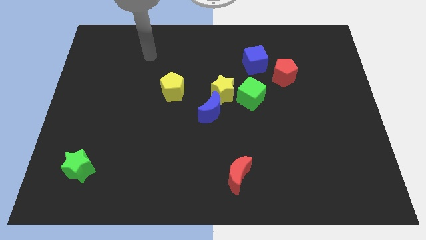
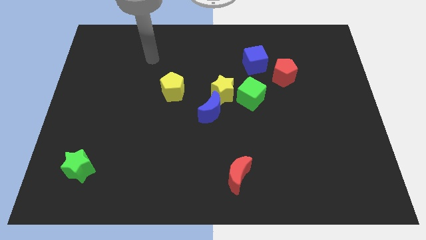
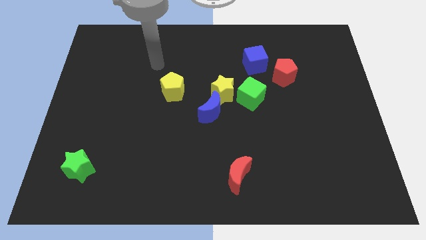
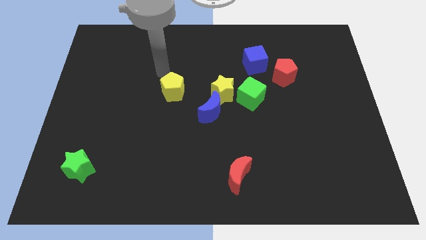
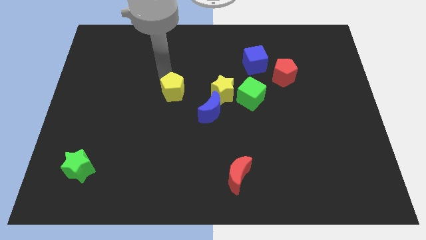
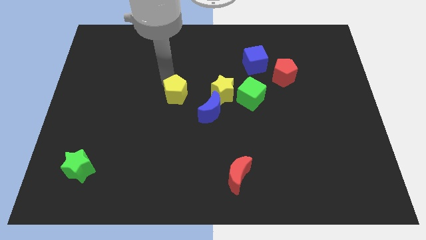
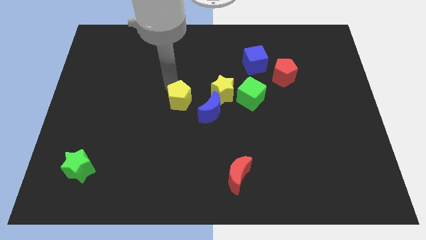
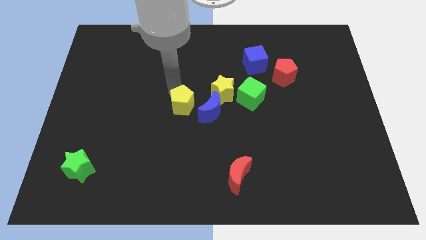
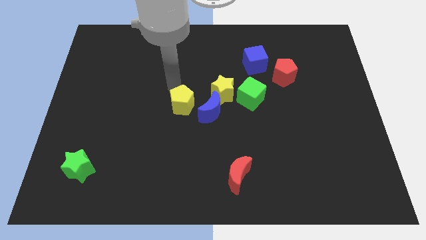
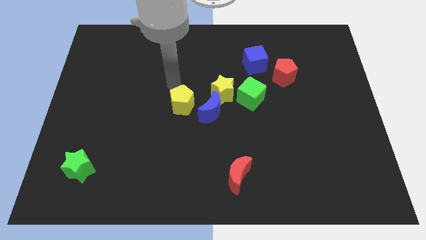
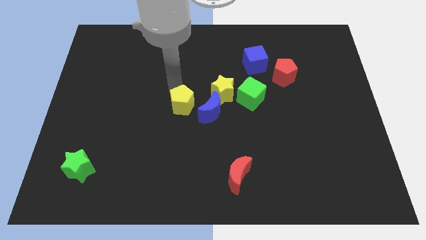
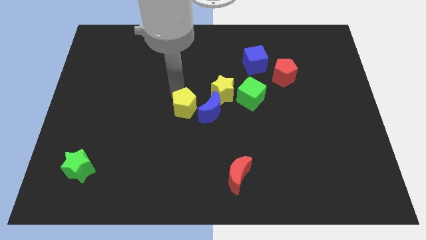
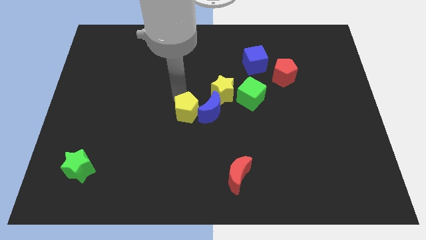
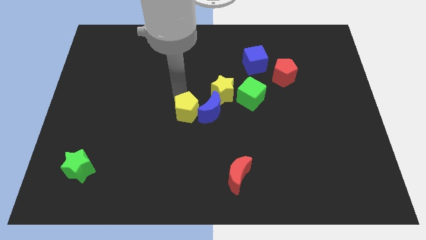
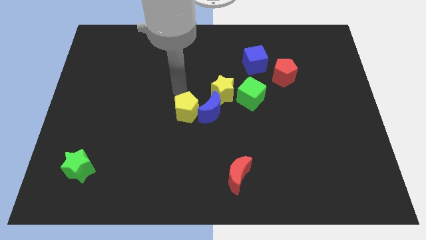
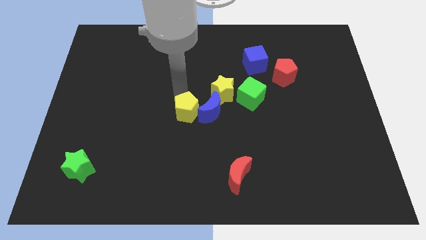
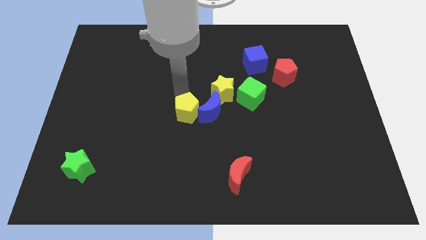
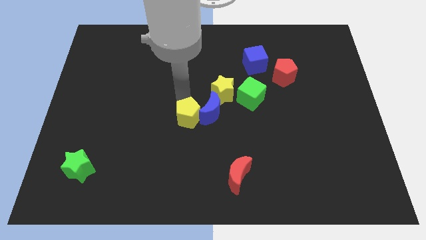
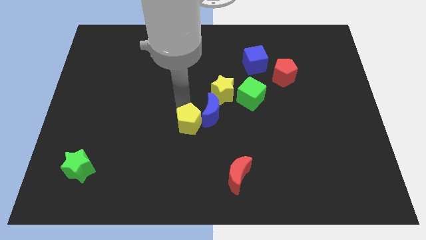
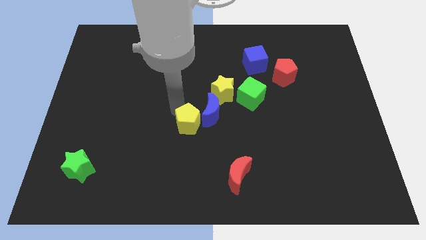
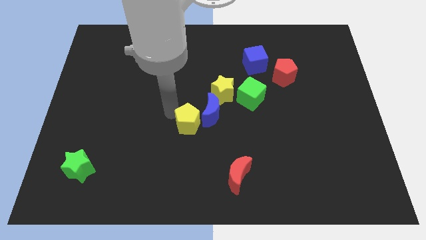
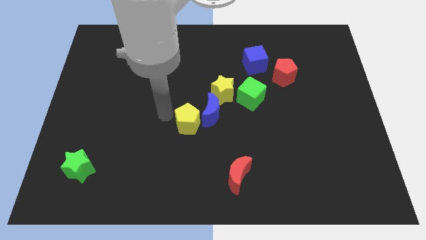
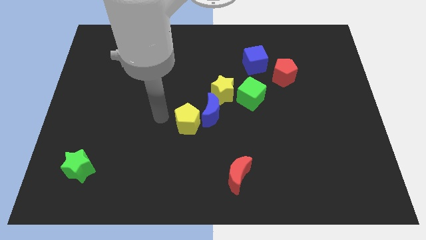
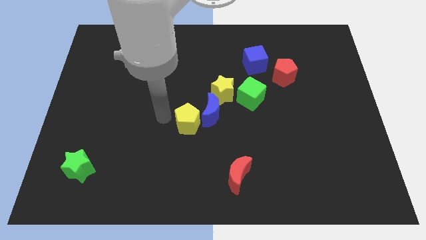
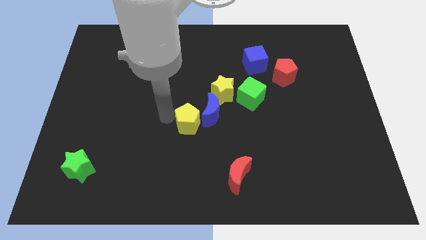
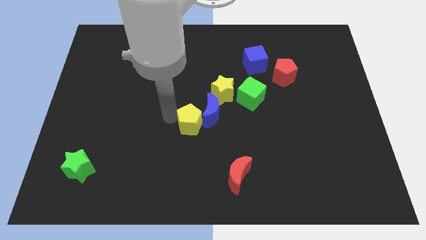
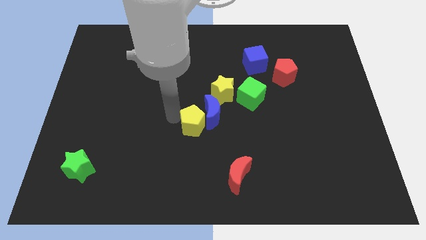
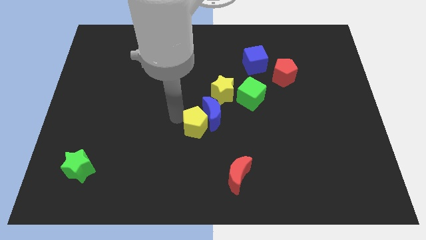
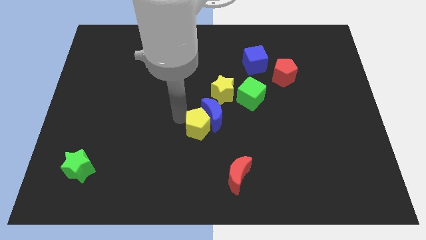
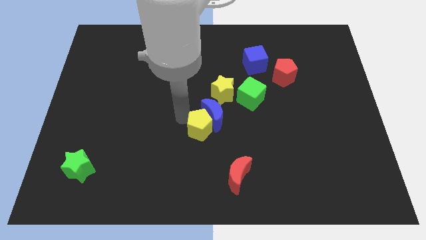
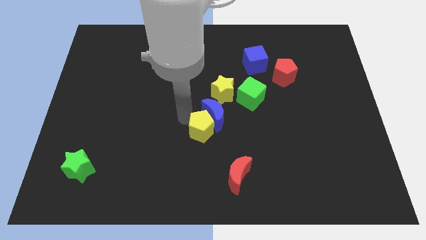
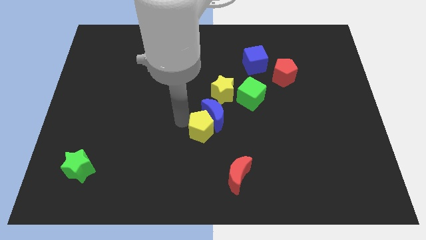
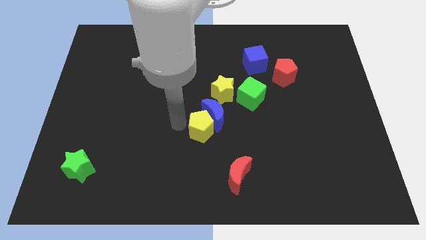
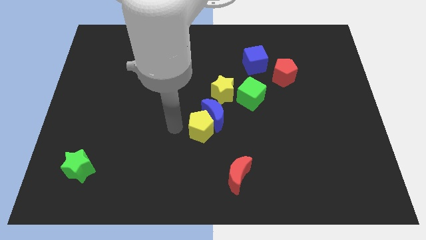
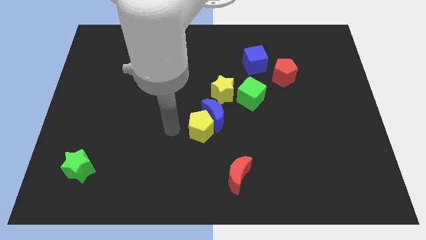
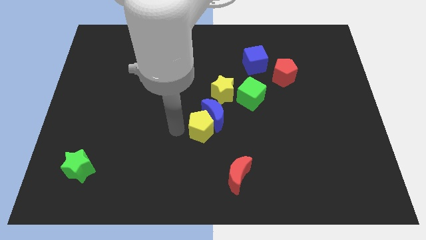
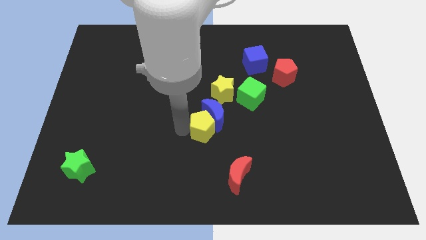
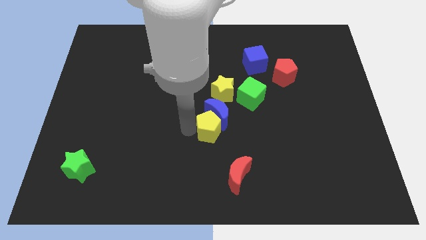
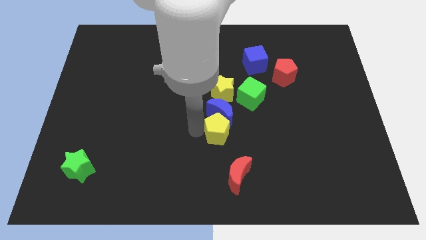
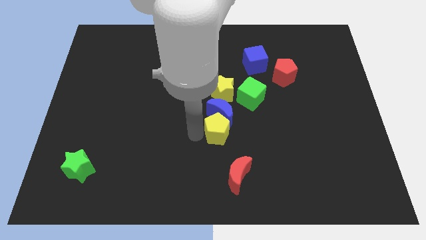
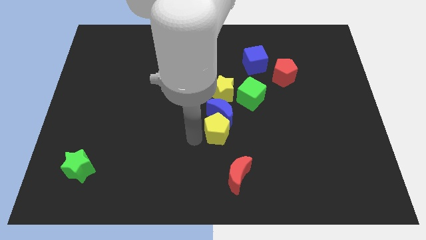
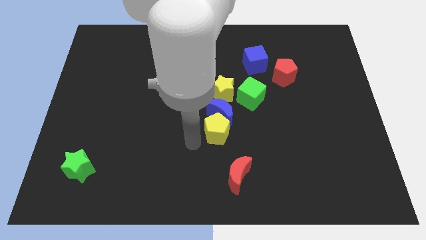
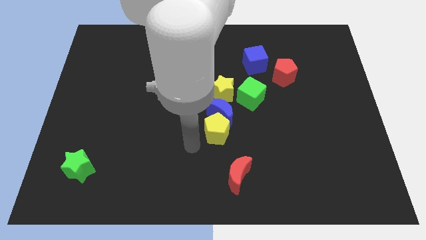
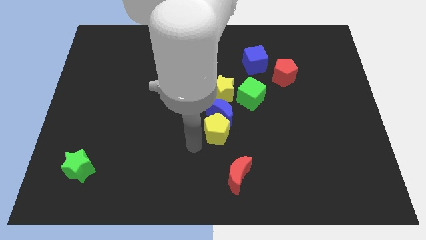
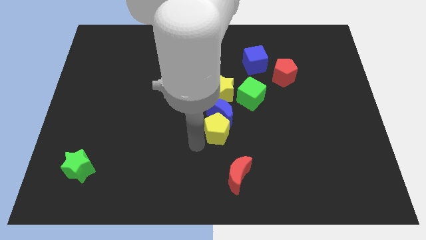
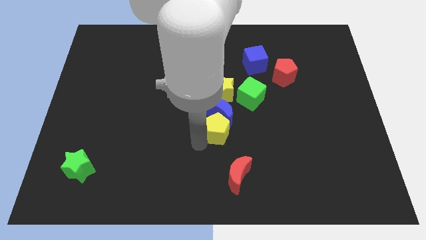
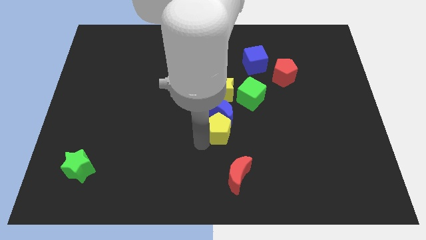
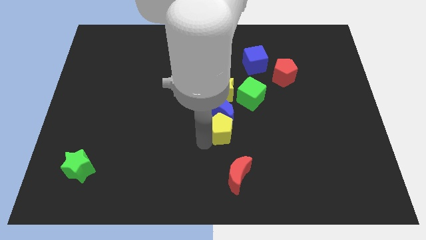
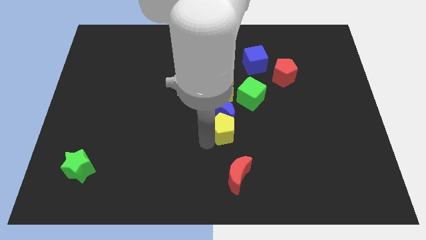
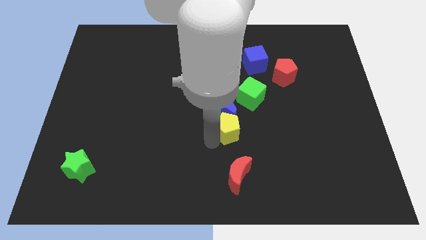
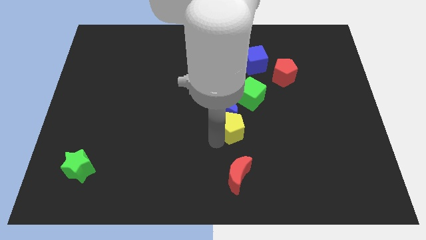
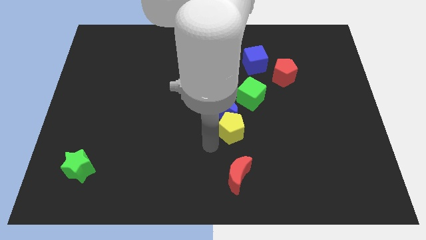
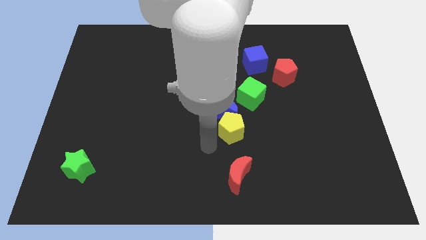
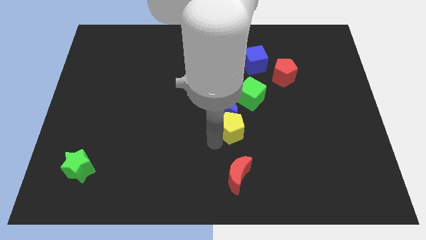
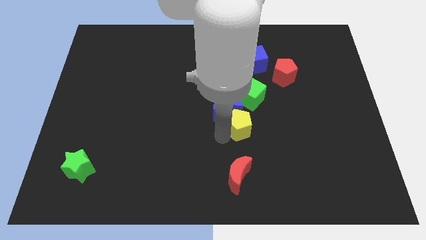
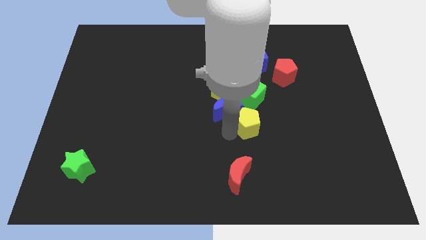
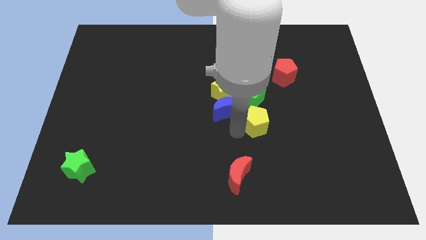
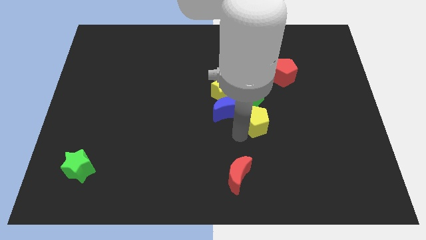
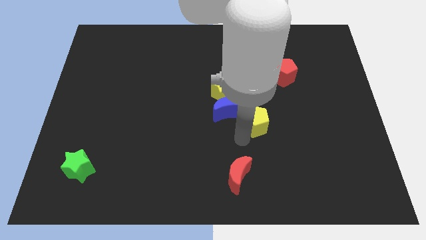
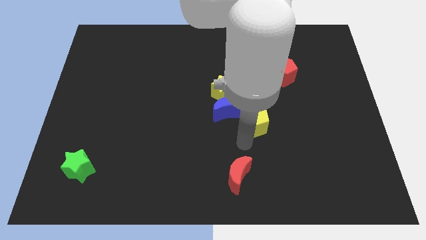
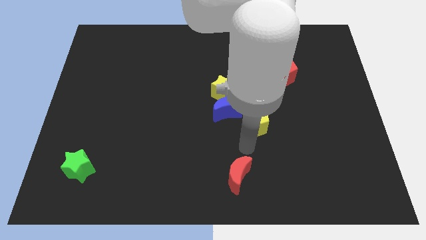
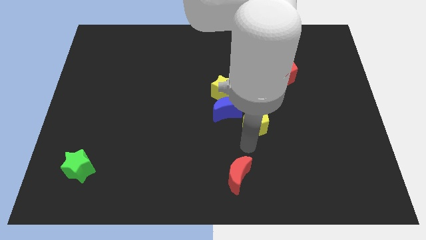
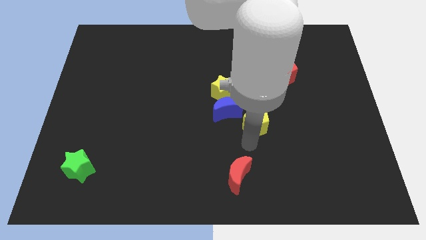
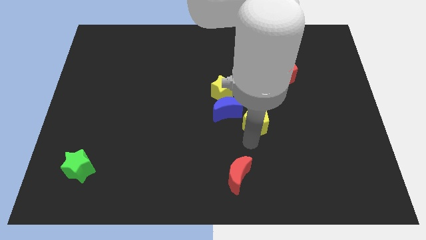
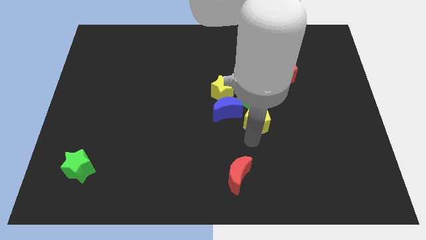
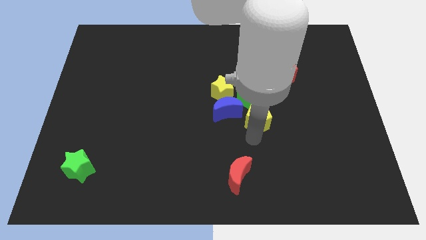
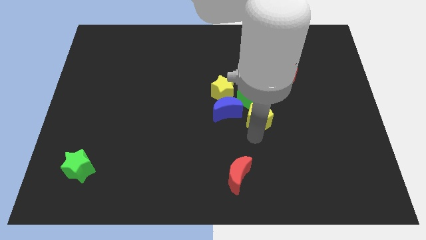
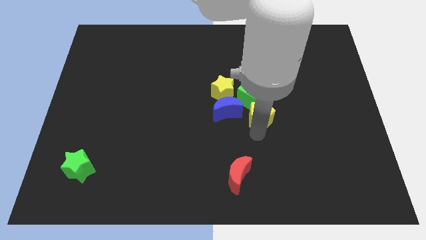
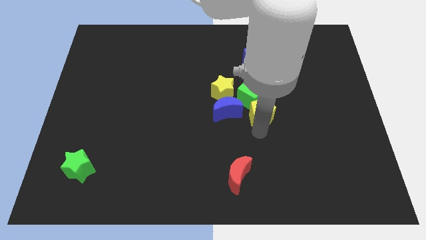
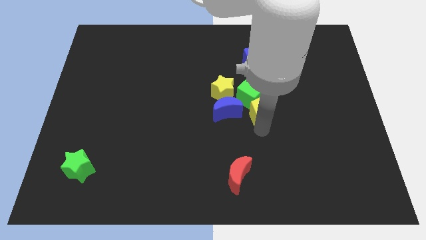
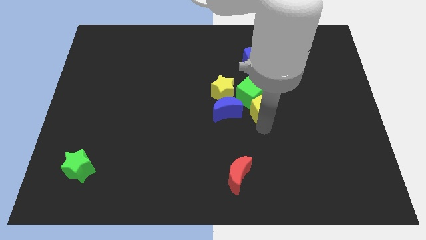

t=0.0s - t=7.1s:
slide the yellow pentagon below the blue cube

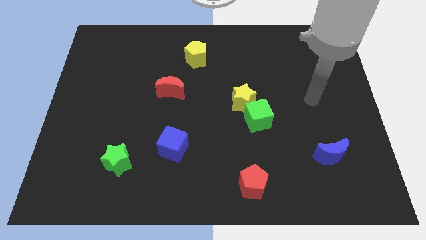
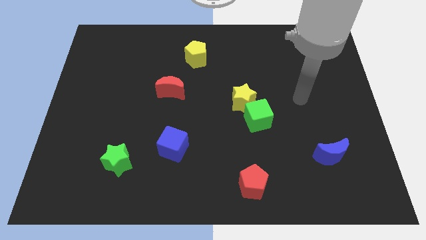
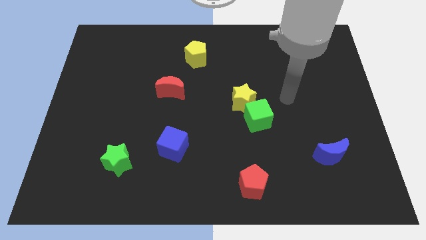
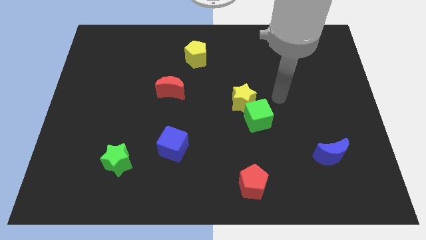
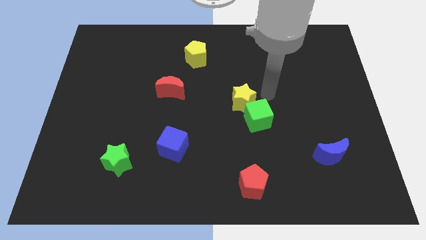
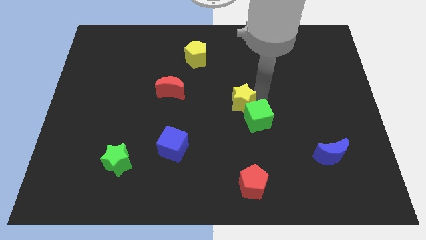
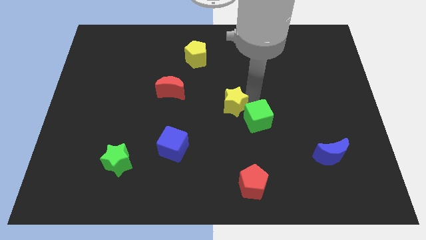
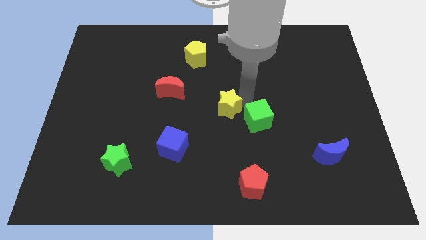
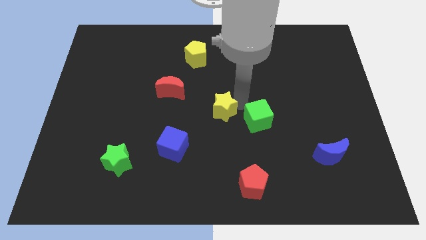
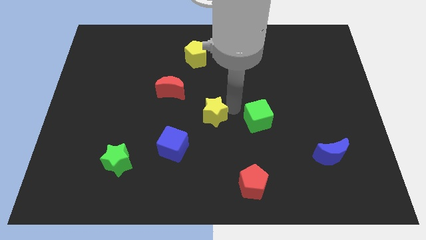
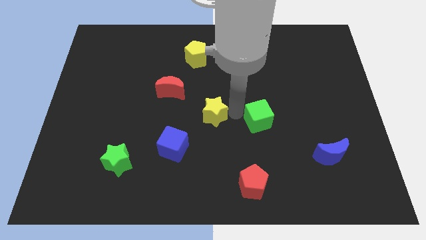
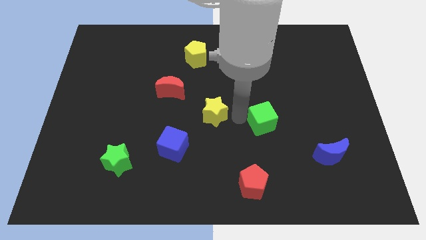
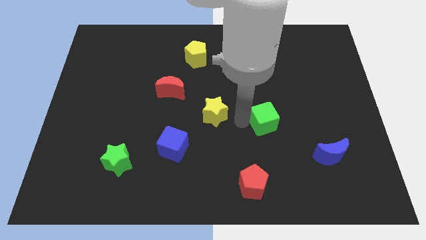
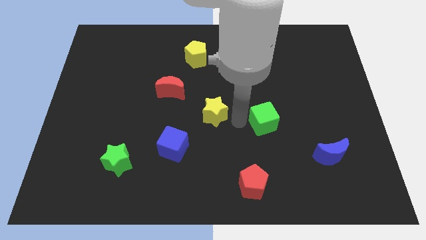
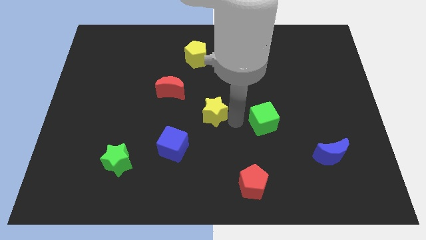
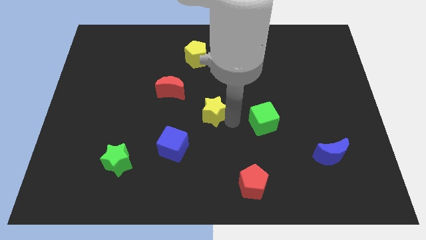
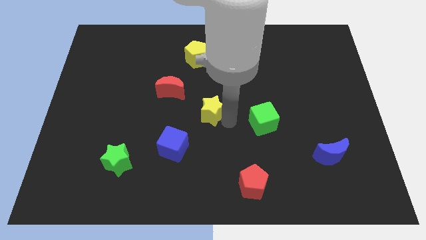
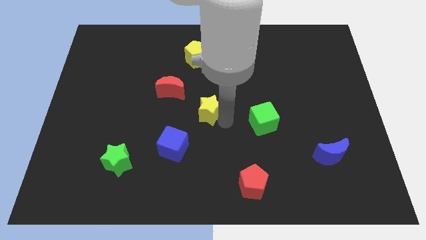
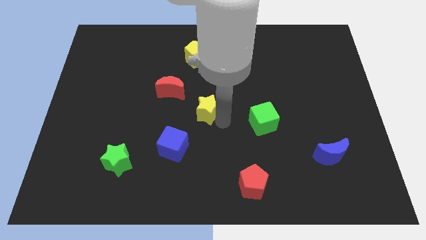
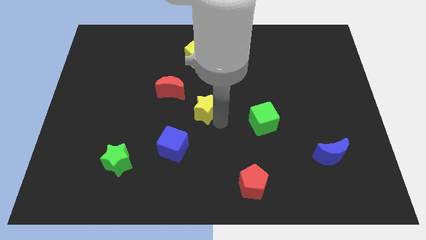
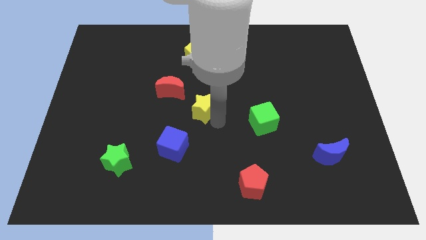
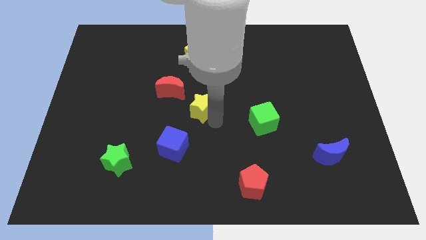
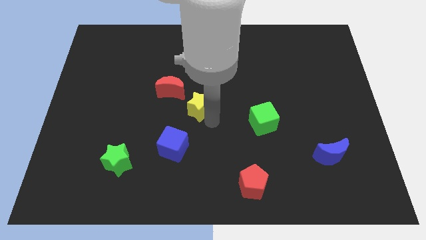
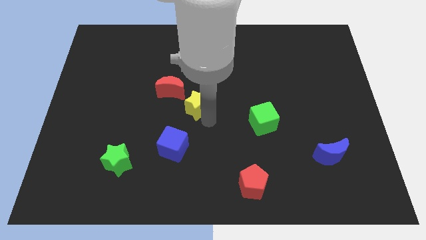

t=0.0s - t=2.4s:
slide the yellow star above the blue cube
